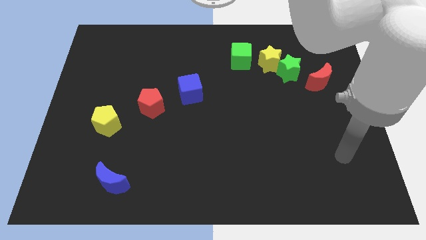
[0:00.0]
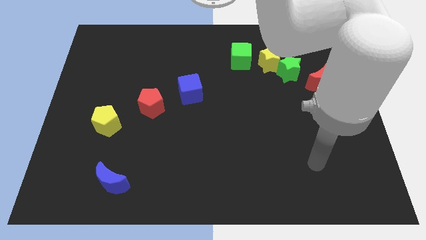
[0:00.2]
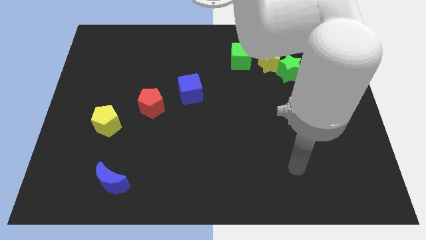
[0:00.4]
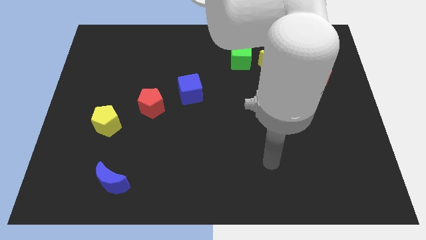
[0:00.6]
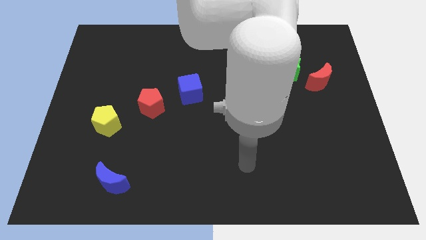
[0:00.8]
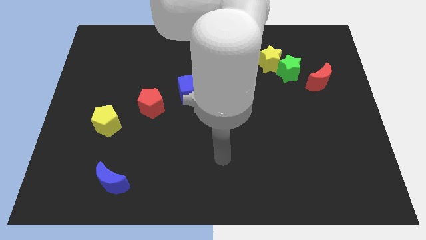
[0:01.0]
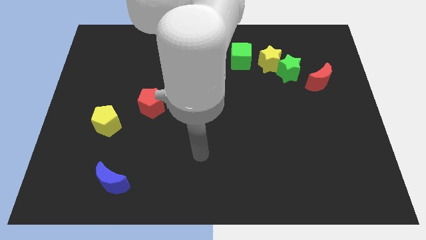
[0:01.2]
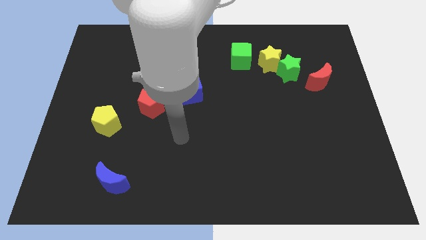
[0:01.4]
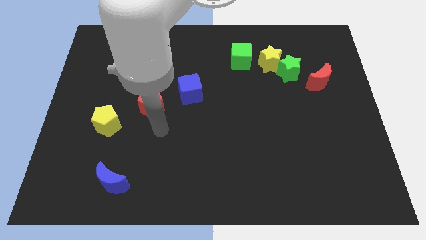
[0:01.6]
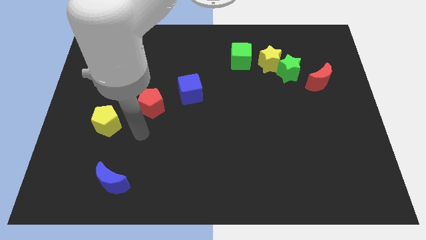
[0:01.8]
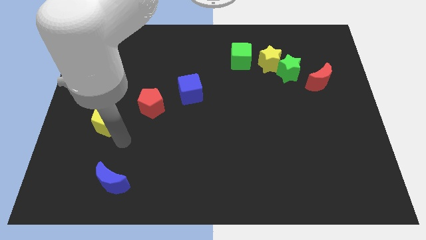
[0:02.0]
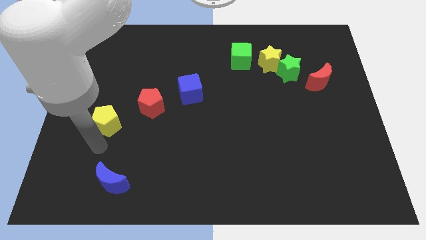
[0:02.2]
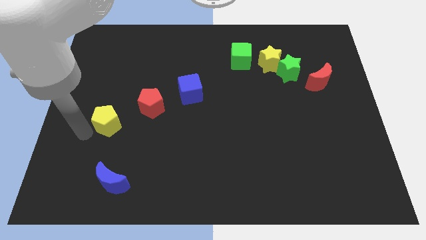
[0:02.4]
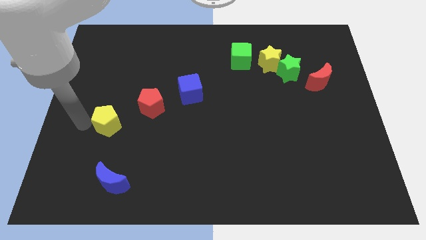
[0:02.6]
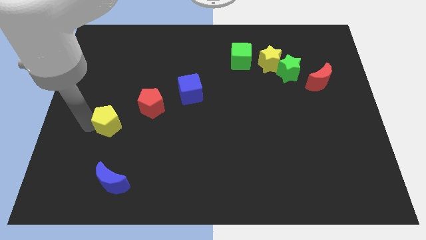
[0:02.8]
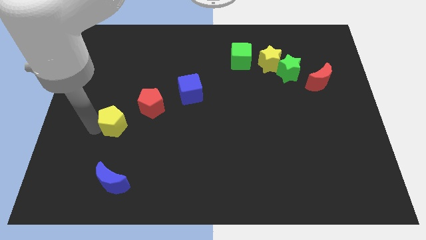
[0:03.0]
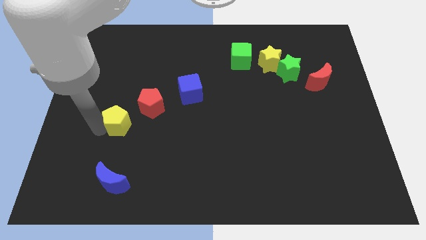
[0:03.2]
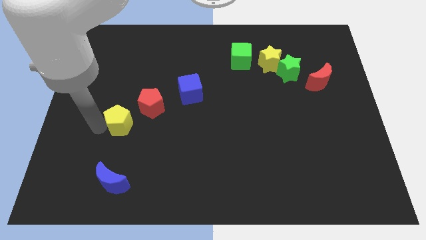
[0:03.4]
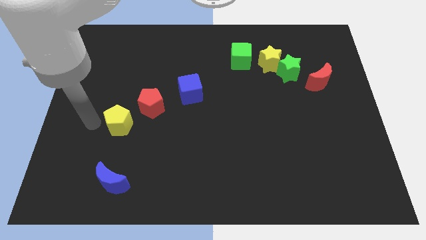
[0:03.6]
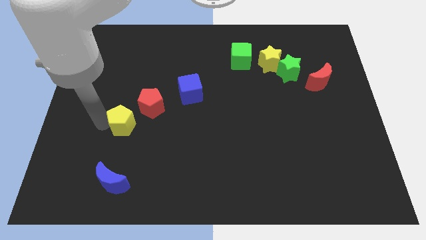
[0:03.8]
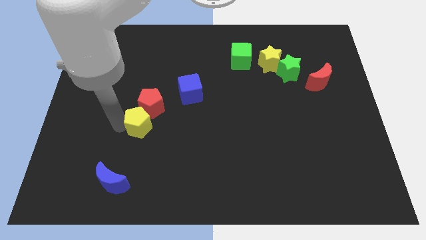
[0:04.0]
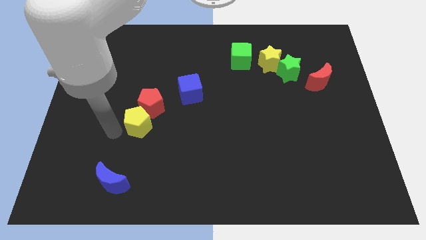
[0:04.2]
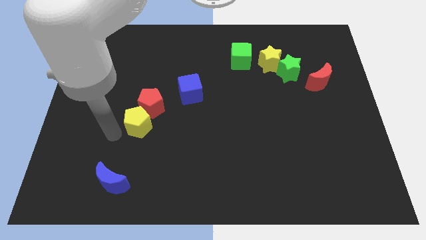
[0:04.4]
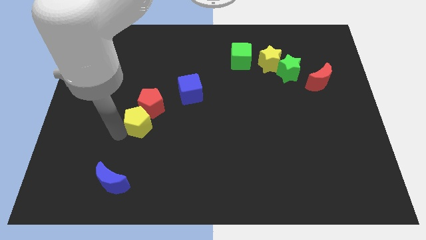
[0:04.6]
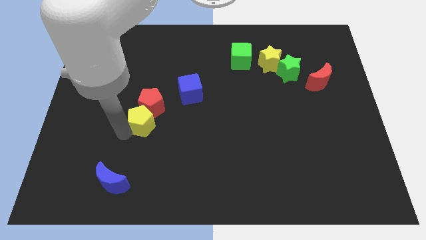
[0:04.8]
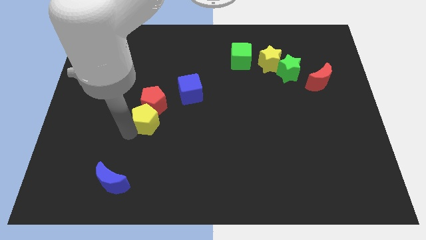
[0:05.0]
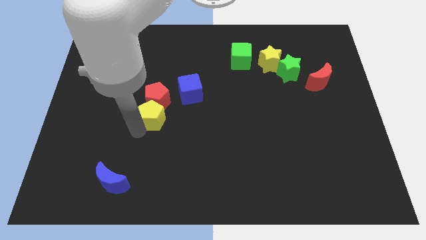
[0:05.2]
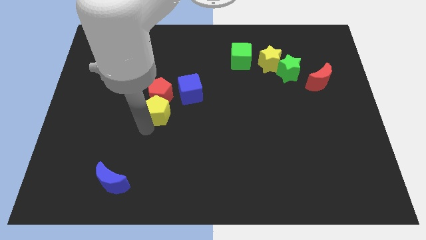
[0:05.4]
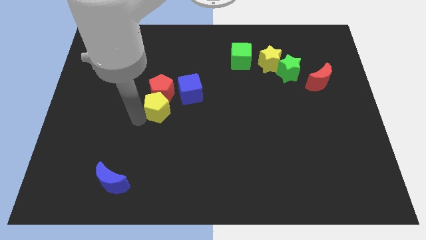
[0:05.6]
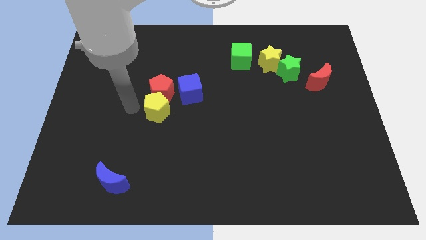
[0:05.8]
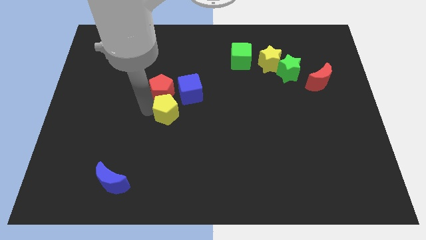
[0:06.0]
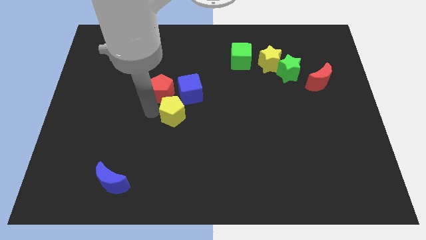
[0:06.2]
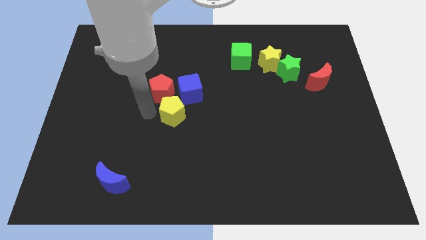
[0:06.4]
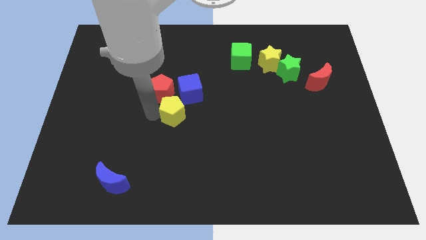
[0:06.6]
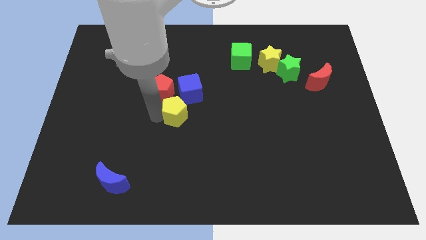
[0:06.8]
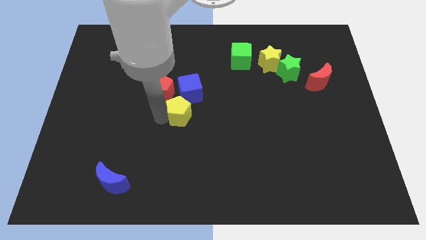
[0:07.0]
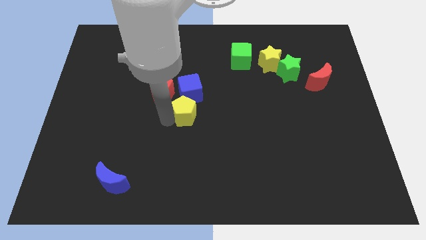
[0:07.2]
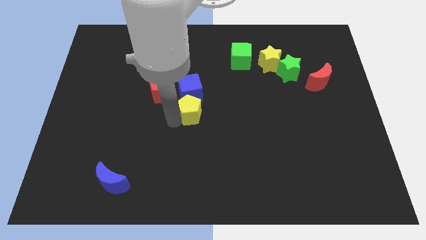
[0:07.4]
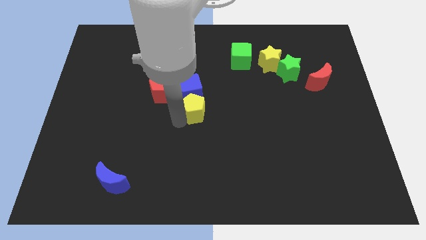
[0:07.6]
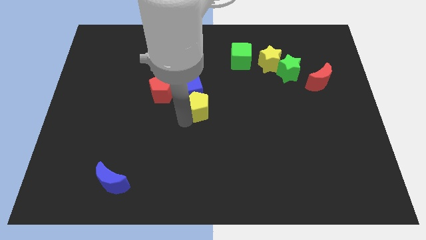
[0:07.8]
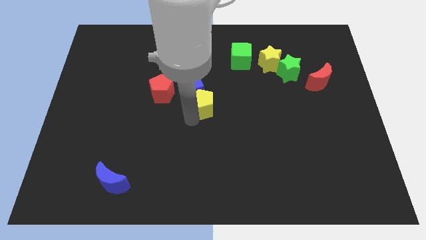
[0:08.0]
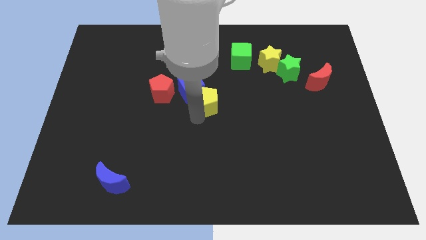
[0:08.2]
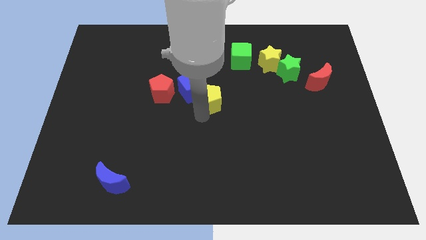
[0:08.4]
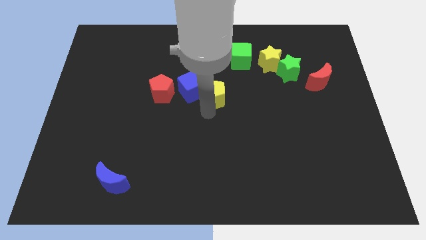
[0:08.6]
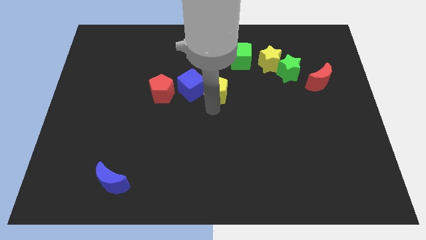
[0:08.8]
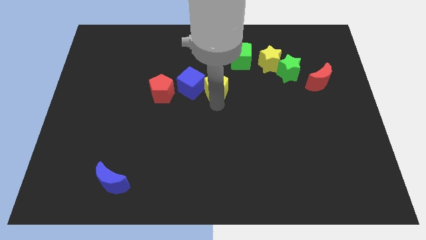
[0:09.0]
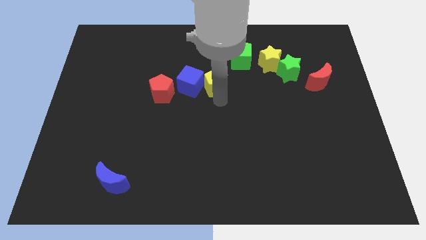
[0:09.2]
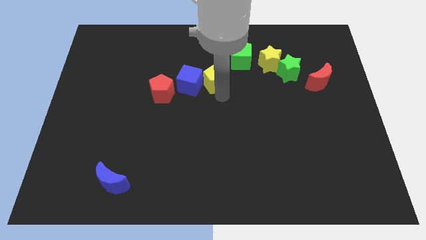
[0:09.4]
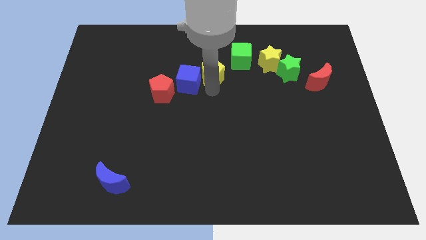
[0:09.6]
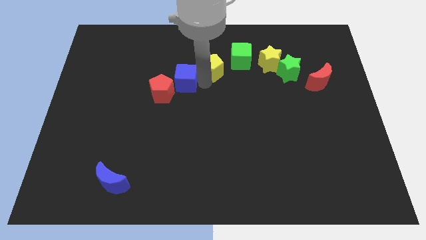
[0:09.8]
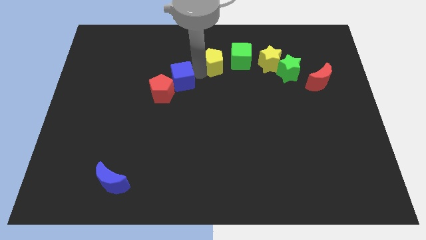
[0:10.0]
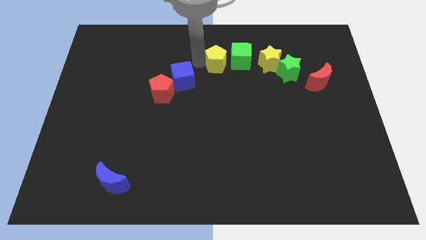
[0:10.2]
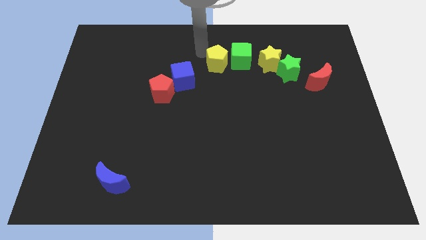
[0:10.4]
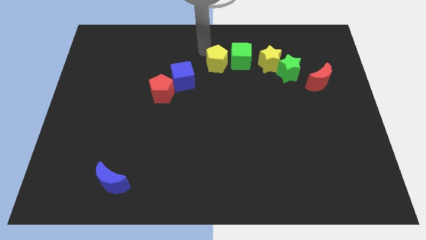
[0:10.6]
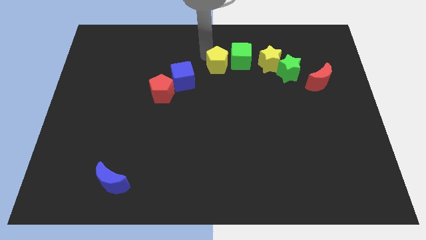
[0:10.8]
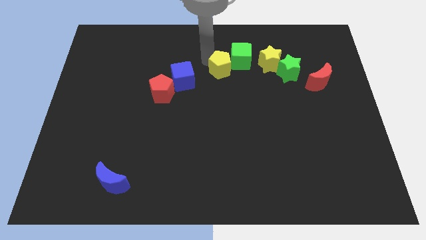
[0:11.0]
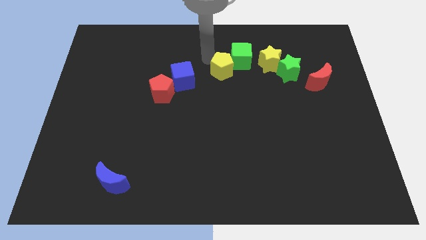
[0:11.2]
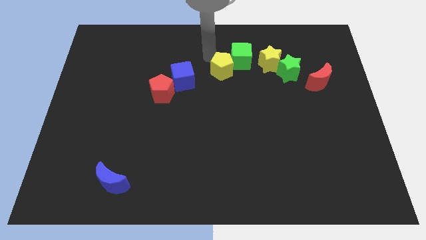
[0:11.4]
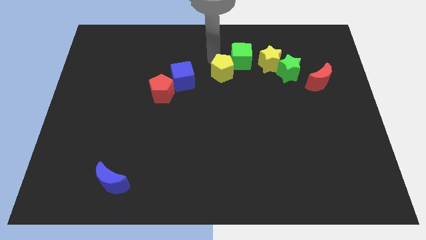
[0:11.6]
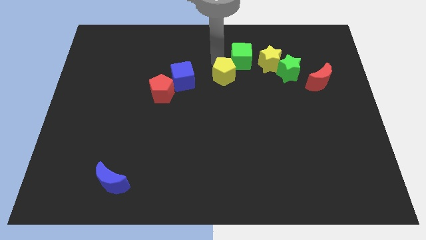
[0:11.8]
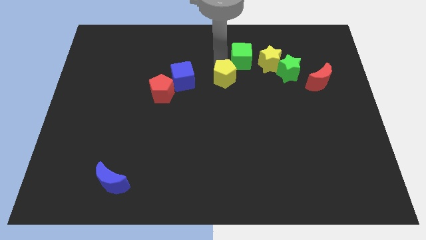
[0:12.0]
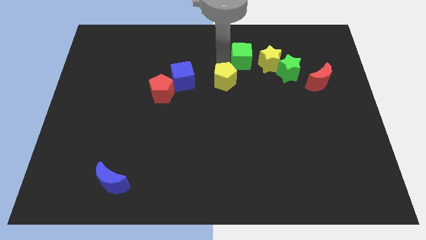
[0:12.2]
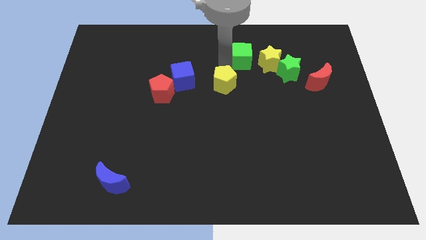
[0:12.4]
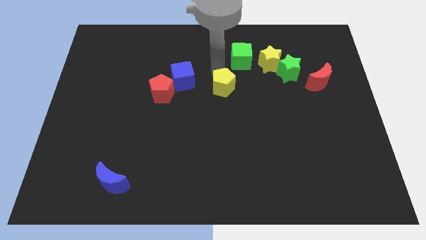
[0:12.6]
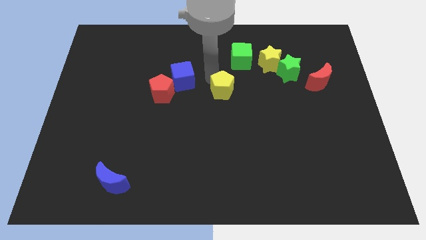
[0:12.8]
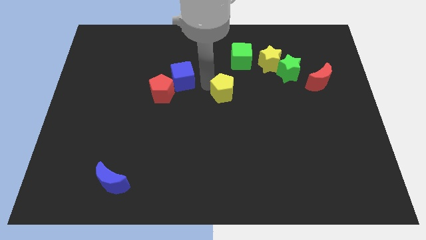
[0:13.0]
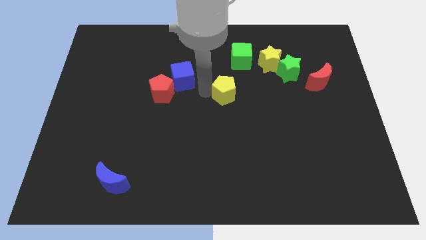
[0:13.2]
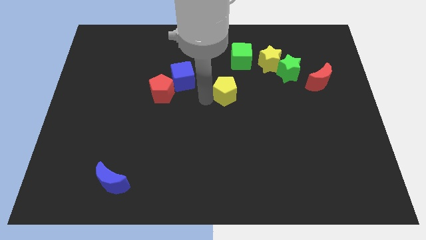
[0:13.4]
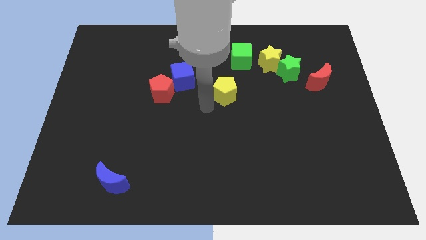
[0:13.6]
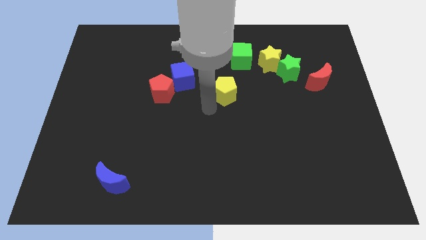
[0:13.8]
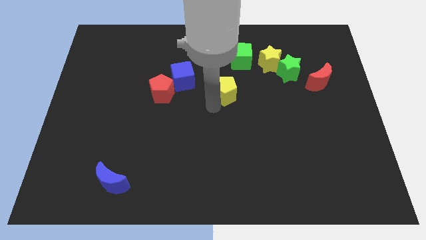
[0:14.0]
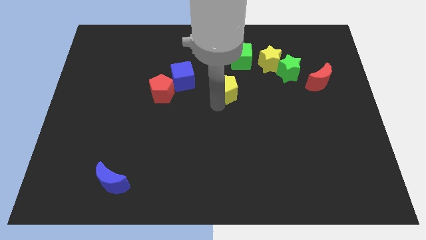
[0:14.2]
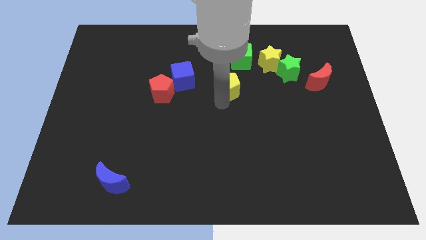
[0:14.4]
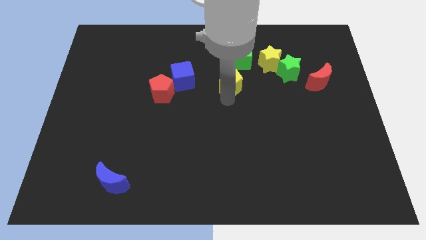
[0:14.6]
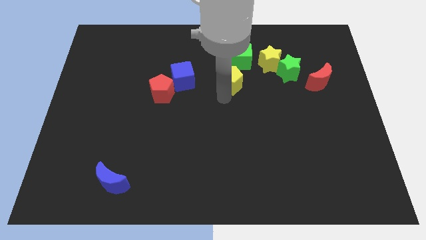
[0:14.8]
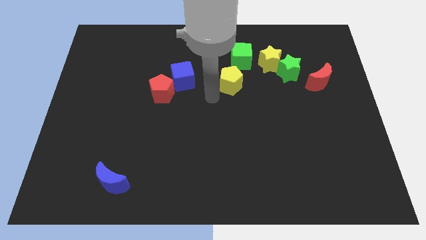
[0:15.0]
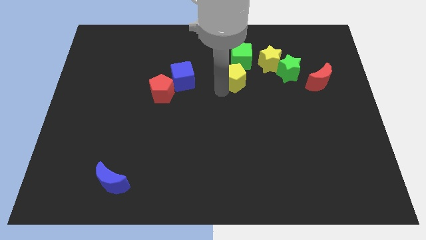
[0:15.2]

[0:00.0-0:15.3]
slide the yellow pentagon to the left of the green star

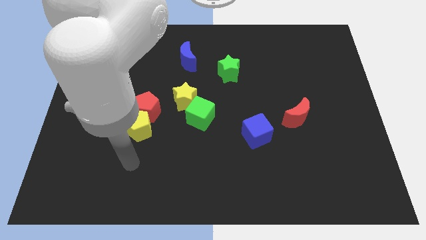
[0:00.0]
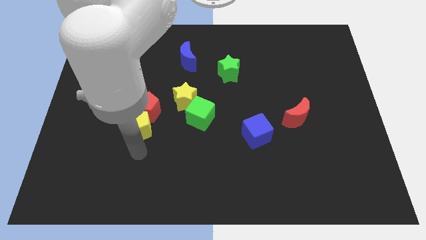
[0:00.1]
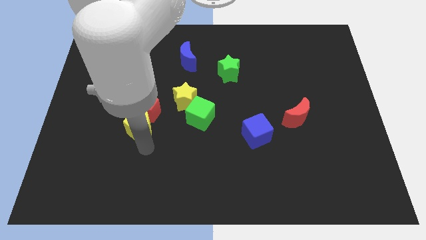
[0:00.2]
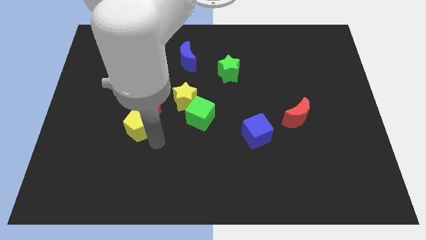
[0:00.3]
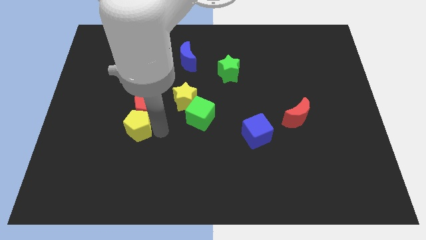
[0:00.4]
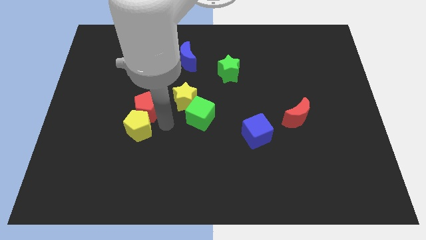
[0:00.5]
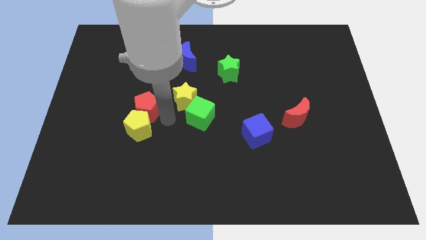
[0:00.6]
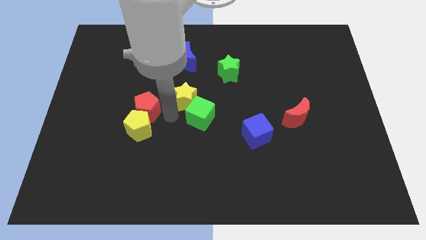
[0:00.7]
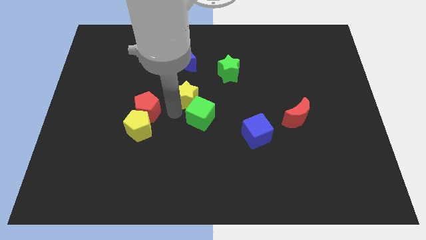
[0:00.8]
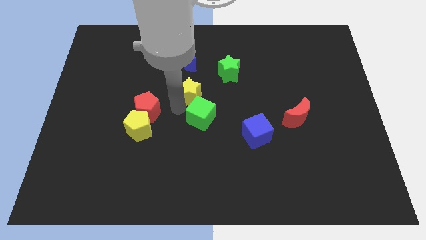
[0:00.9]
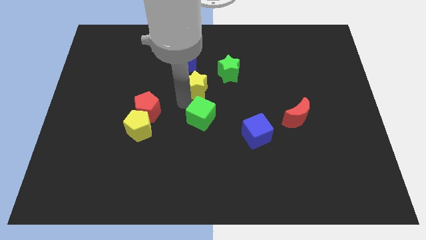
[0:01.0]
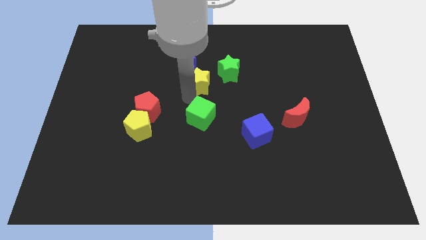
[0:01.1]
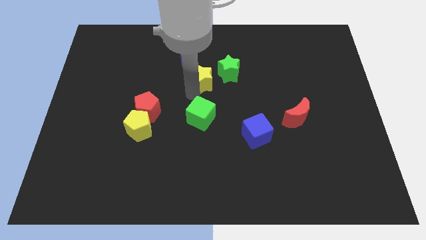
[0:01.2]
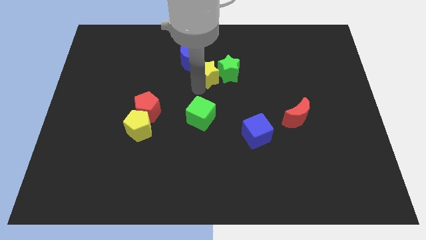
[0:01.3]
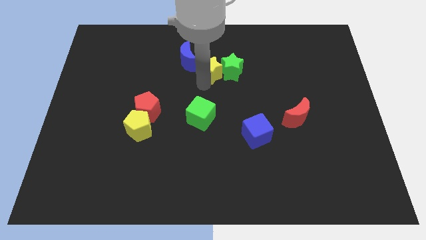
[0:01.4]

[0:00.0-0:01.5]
put the yellow star to the top left of the green star
